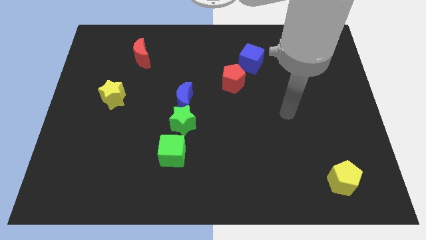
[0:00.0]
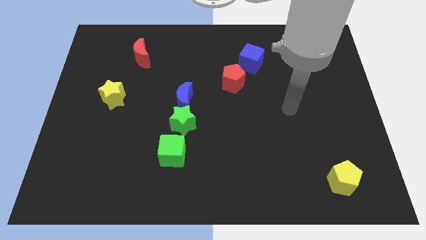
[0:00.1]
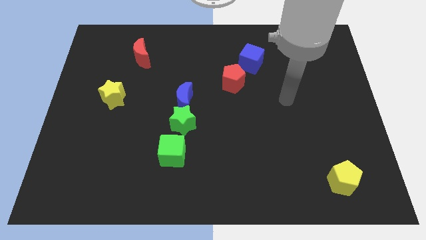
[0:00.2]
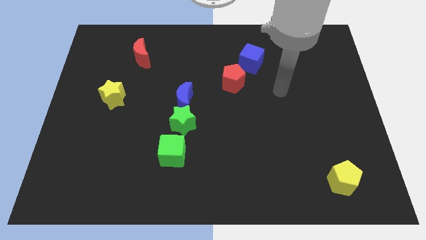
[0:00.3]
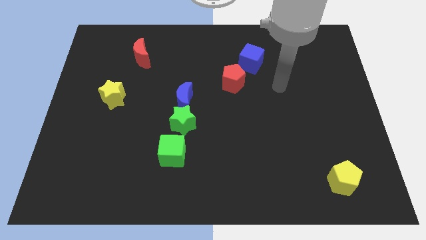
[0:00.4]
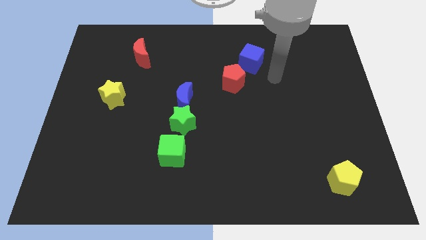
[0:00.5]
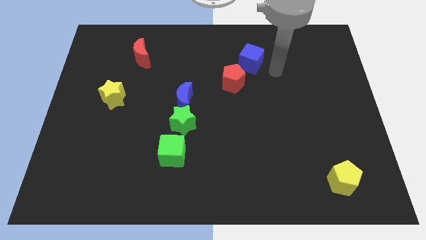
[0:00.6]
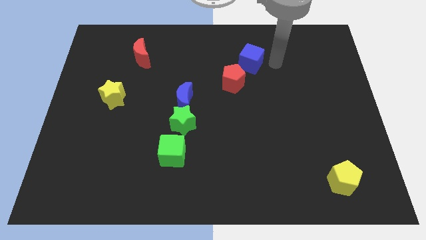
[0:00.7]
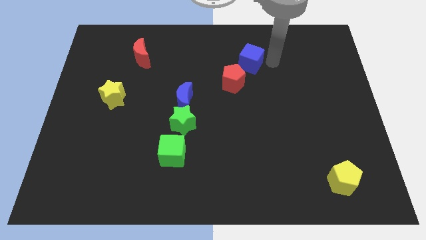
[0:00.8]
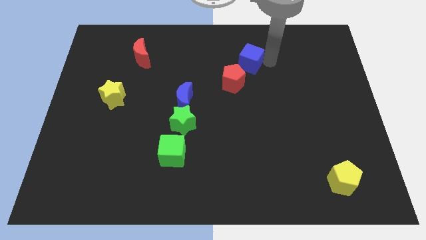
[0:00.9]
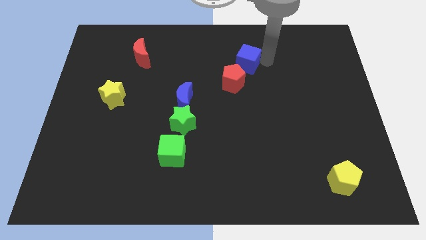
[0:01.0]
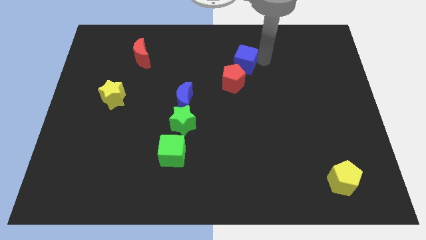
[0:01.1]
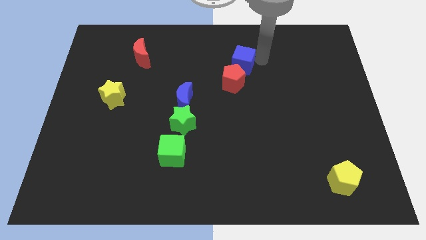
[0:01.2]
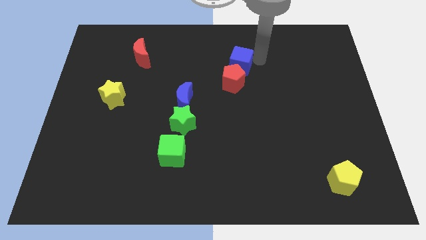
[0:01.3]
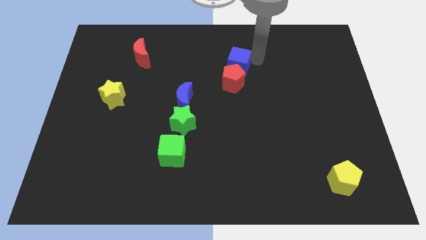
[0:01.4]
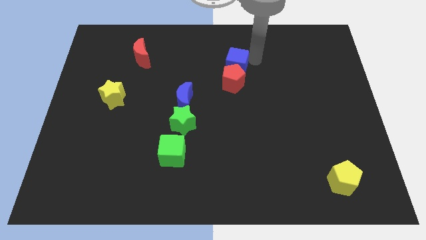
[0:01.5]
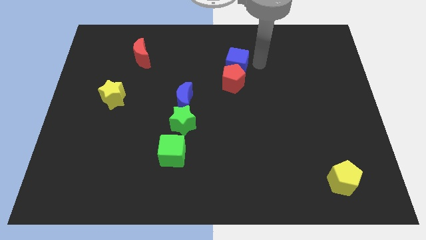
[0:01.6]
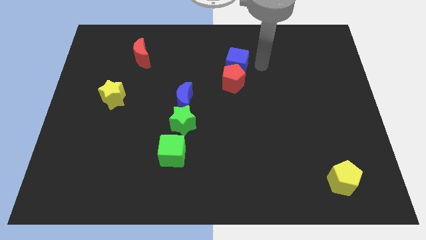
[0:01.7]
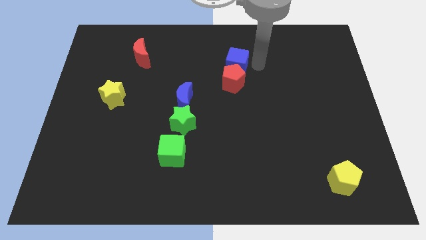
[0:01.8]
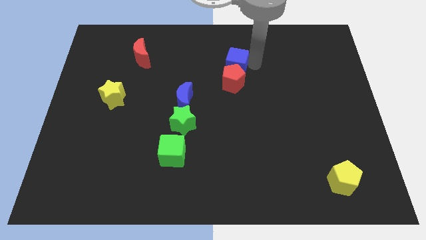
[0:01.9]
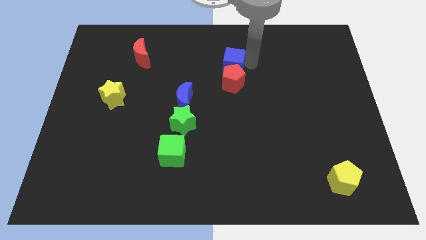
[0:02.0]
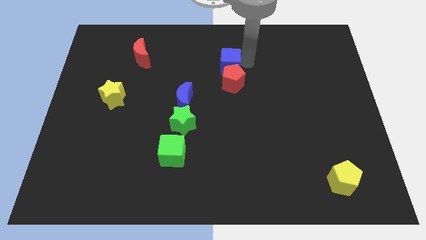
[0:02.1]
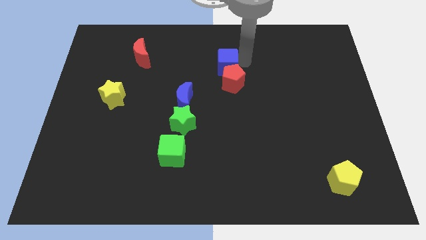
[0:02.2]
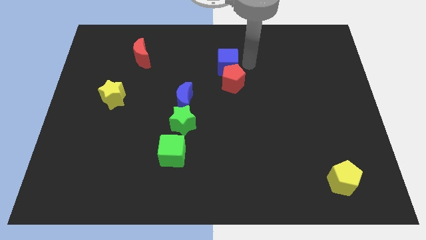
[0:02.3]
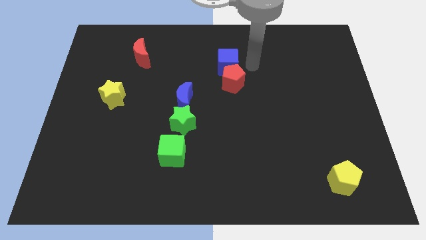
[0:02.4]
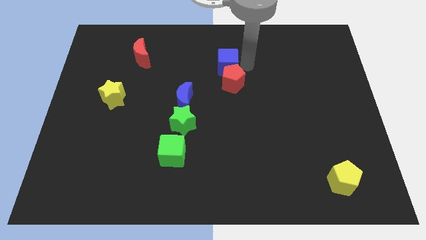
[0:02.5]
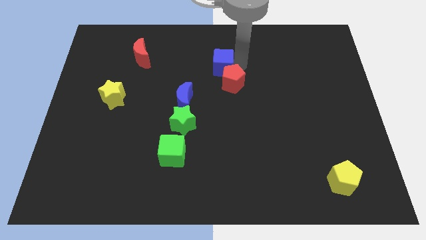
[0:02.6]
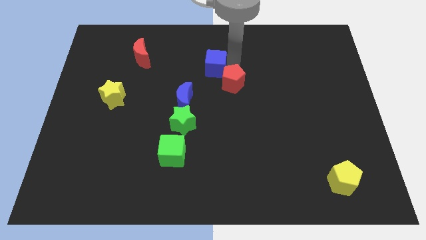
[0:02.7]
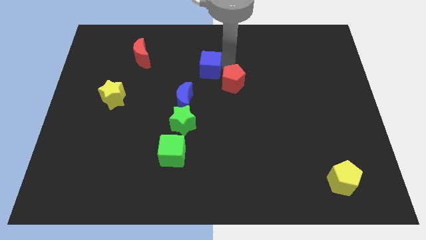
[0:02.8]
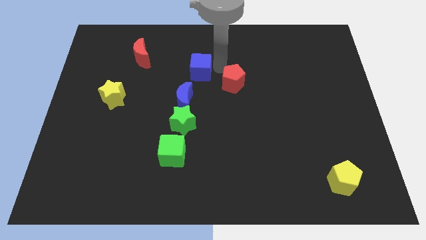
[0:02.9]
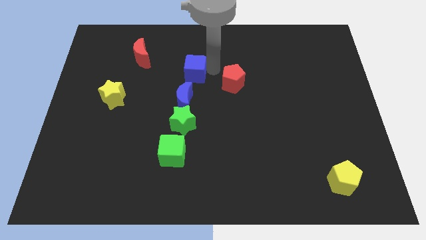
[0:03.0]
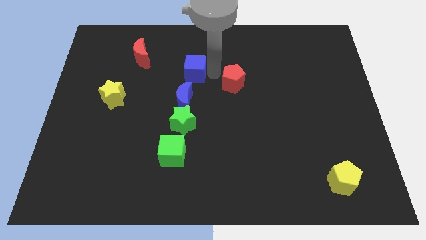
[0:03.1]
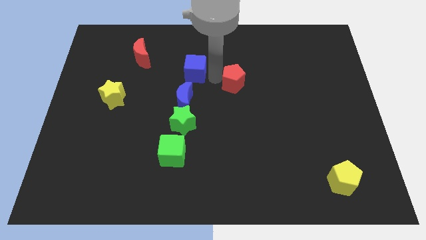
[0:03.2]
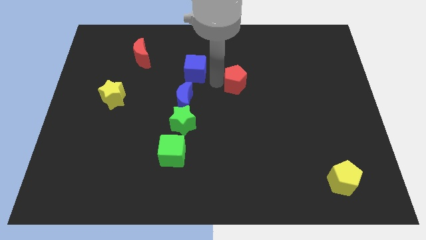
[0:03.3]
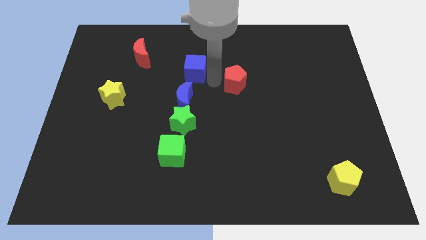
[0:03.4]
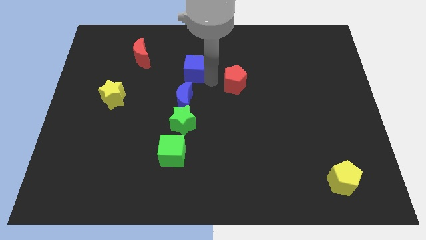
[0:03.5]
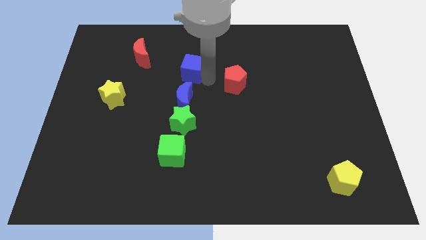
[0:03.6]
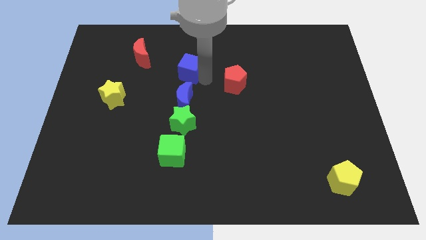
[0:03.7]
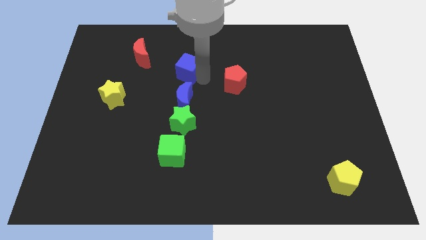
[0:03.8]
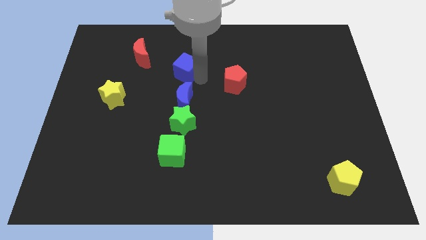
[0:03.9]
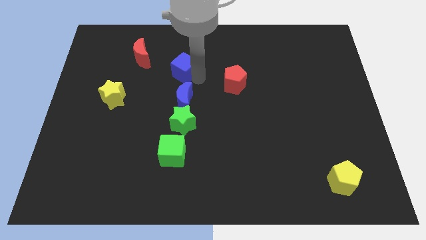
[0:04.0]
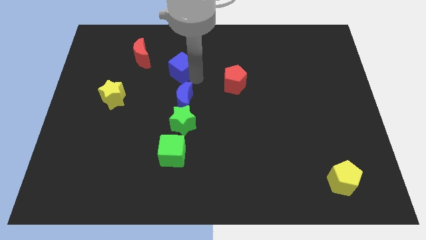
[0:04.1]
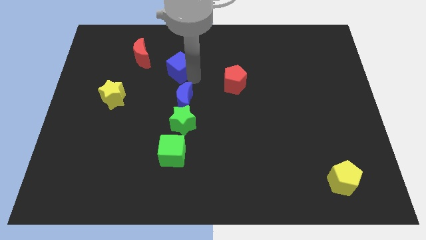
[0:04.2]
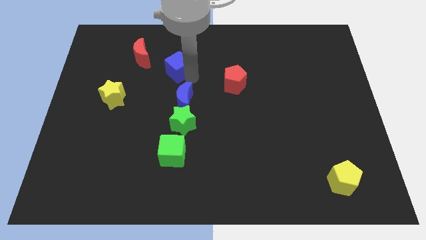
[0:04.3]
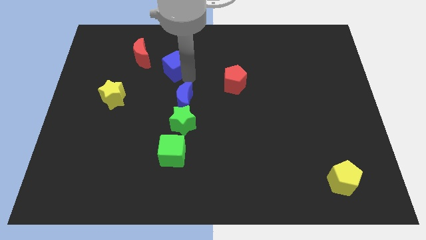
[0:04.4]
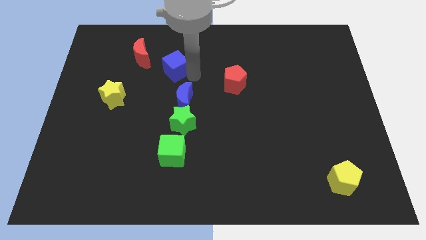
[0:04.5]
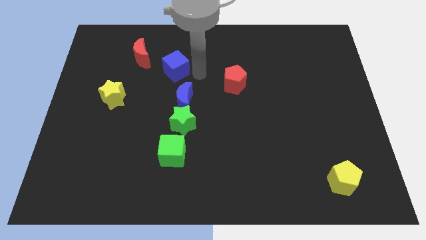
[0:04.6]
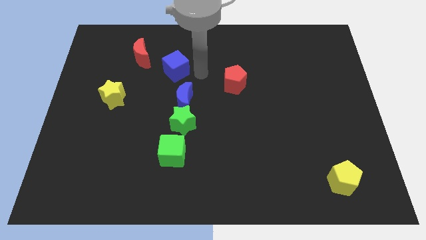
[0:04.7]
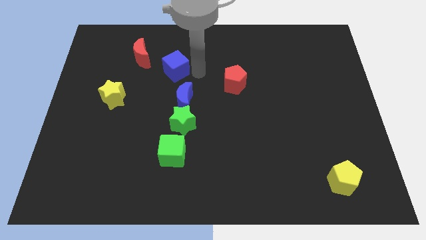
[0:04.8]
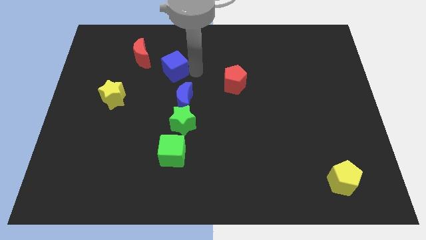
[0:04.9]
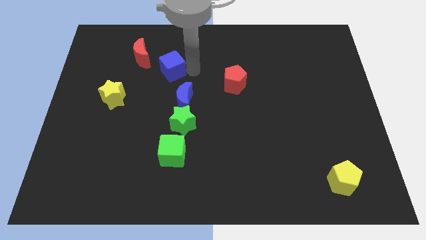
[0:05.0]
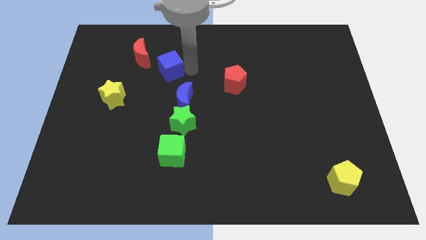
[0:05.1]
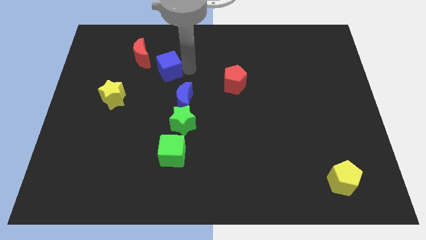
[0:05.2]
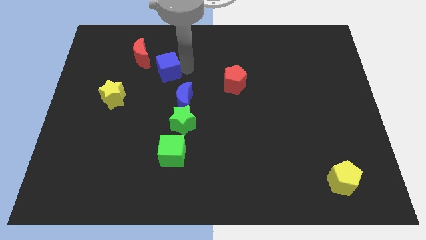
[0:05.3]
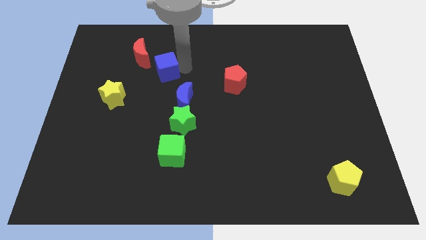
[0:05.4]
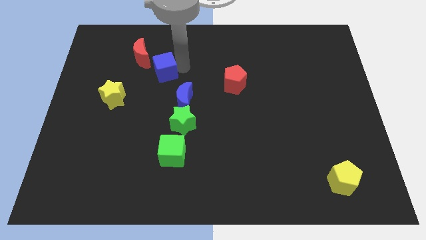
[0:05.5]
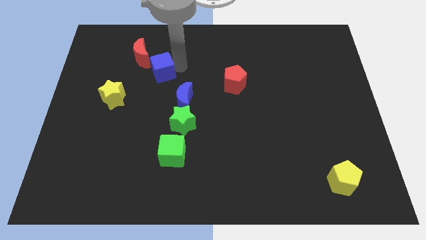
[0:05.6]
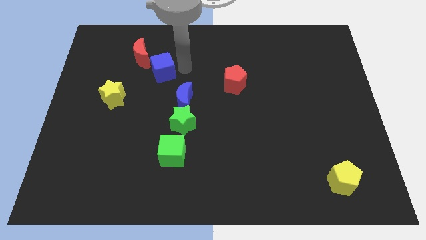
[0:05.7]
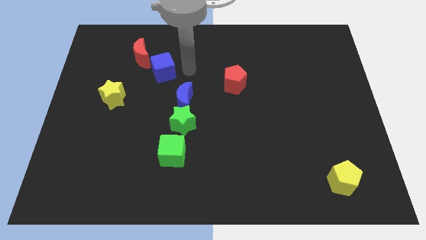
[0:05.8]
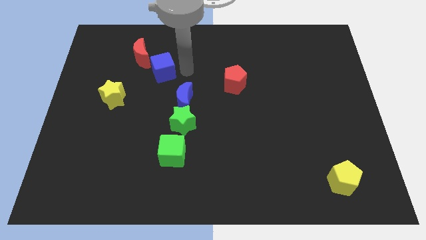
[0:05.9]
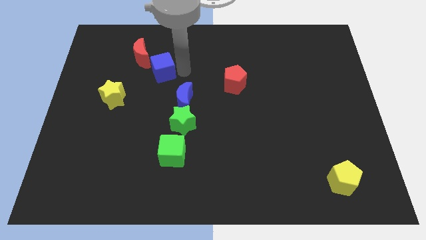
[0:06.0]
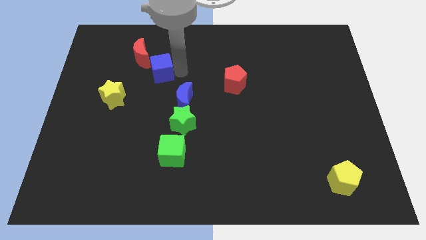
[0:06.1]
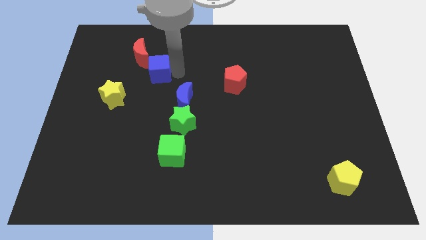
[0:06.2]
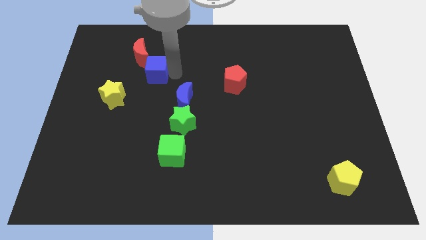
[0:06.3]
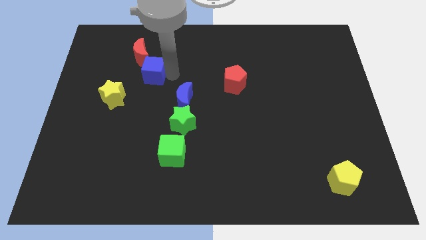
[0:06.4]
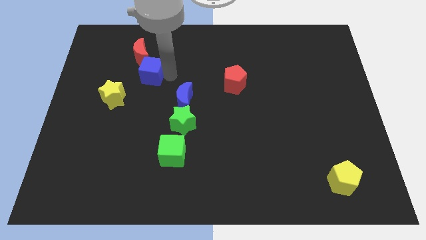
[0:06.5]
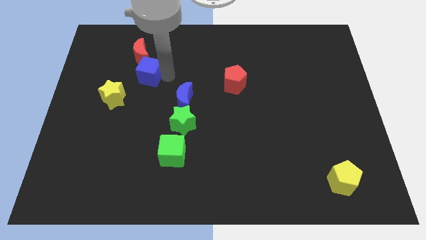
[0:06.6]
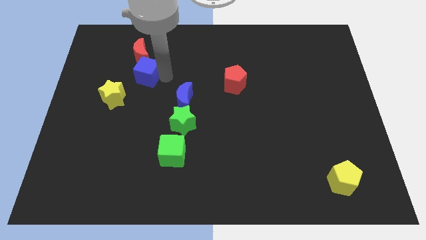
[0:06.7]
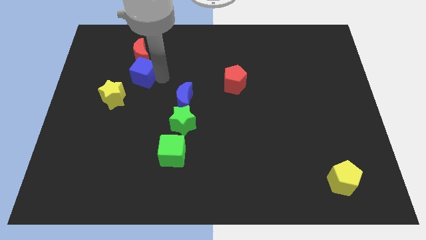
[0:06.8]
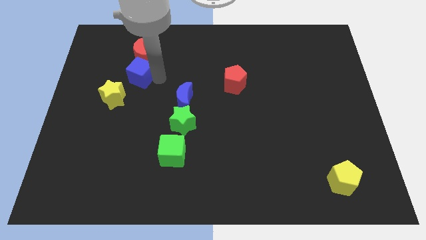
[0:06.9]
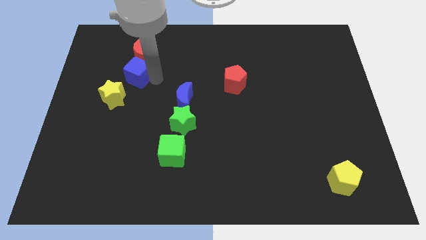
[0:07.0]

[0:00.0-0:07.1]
put the blue cube above the yellow star
